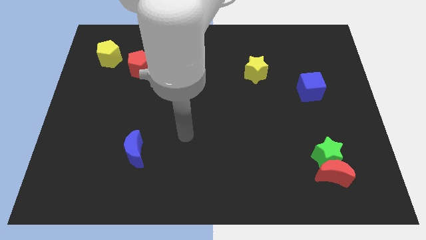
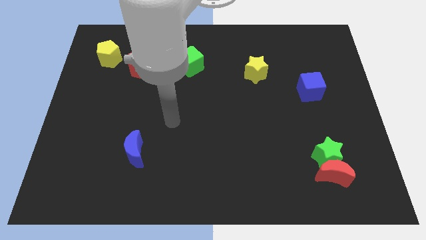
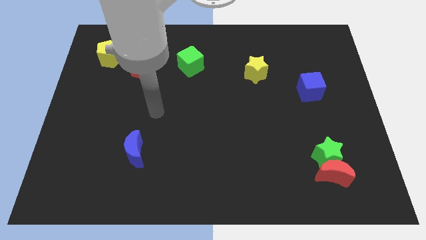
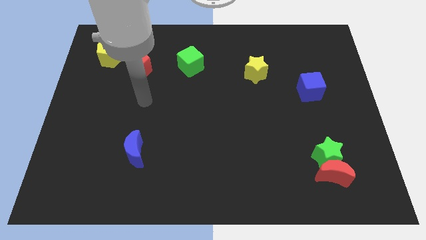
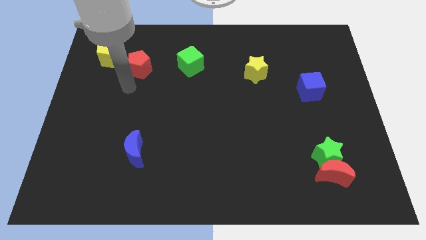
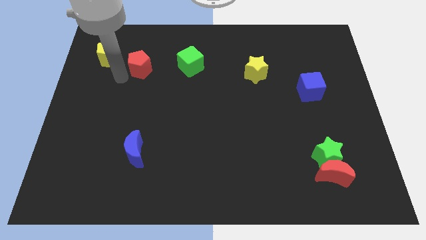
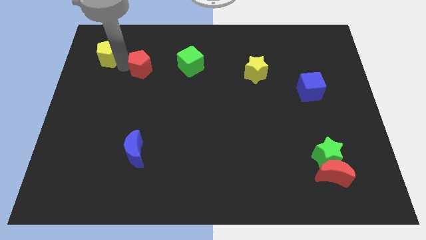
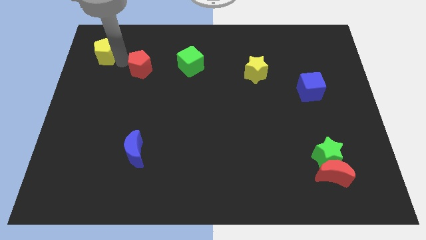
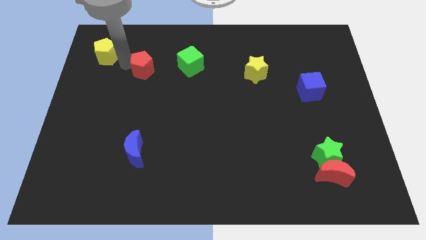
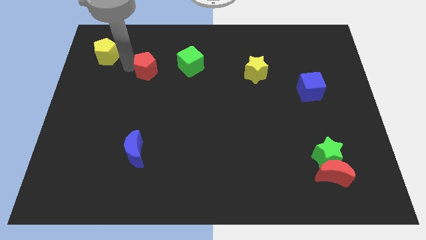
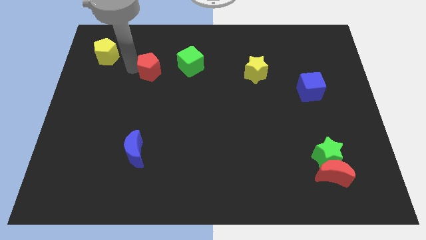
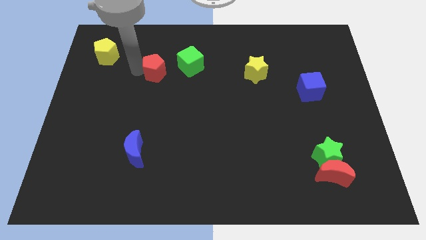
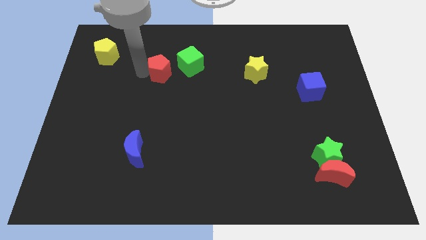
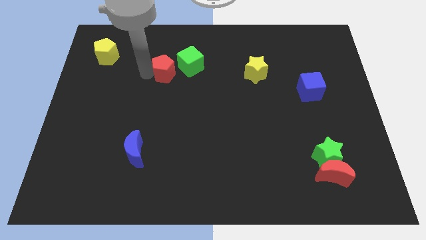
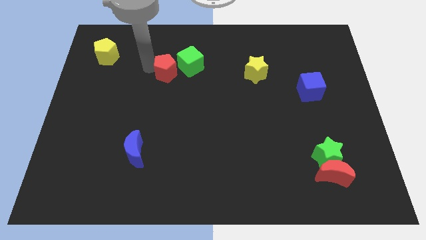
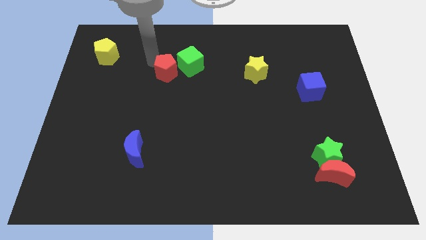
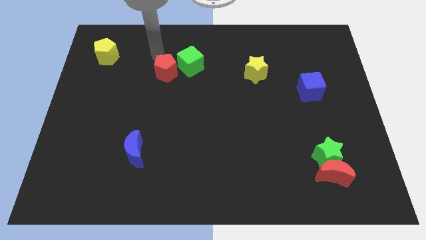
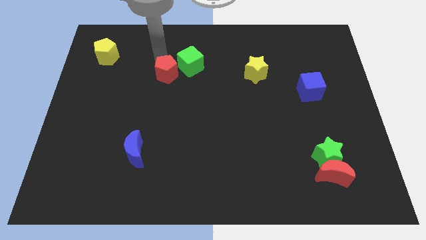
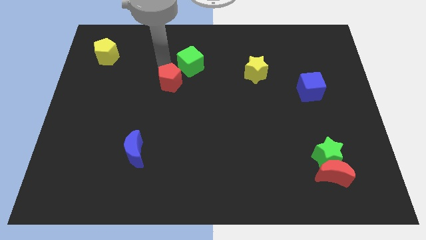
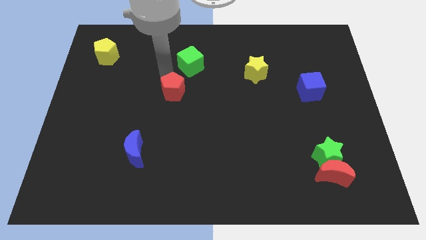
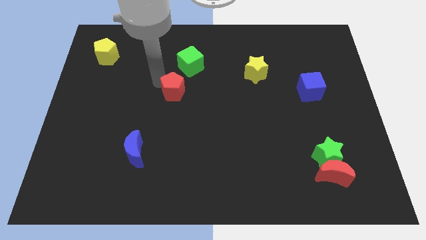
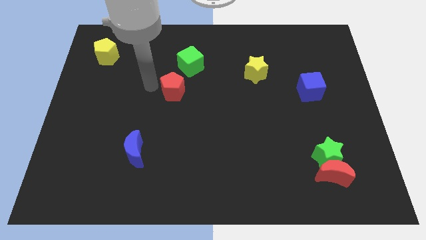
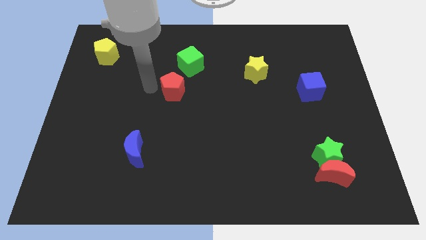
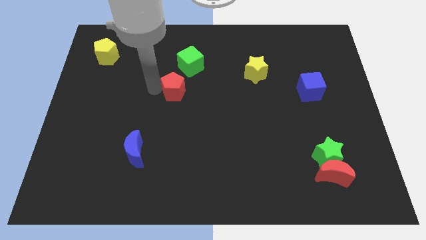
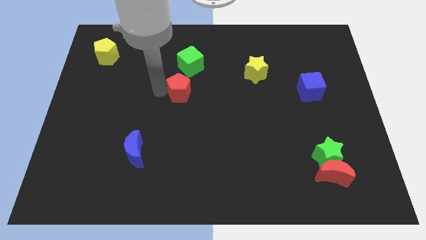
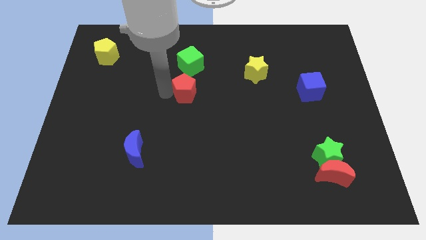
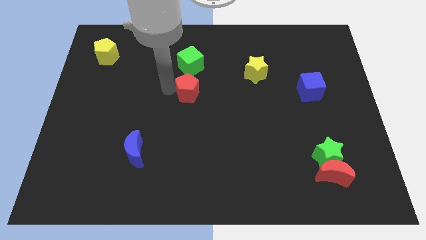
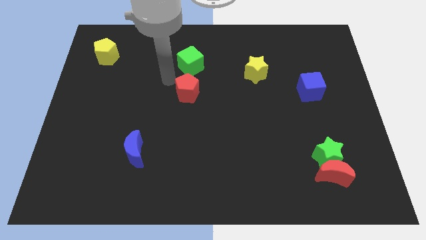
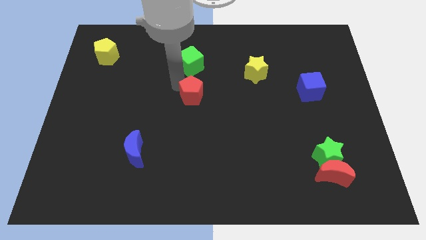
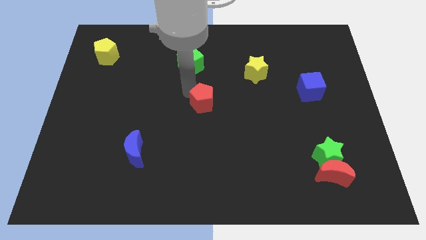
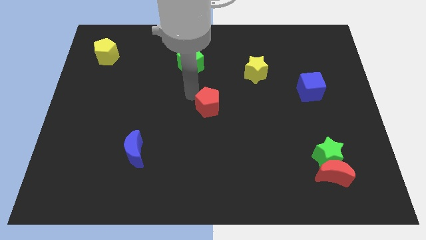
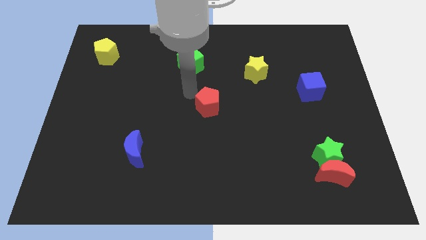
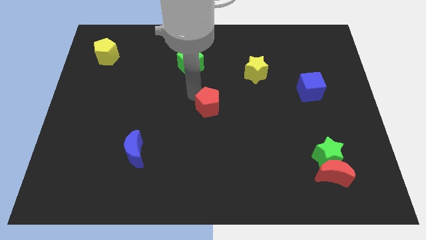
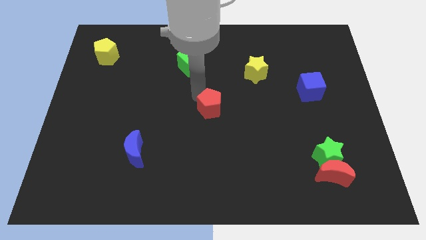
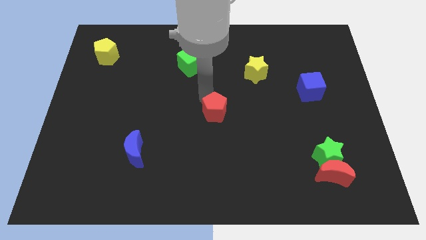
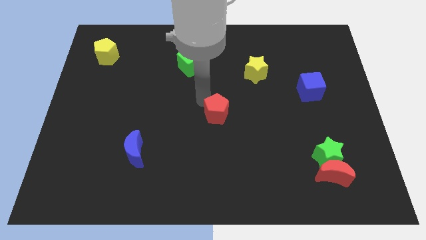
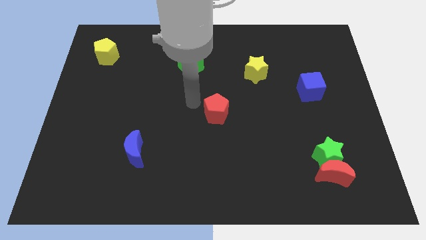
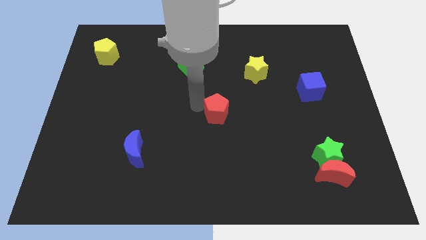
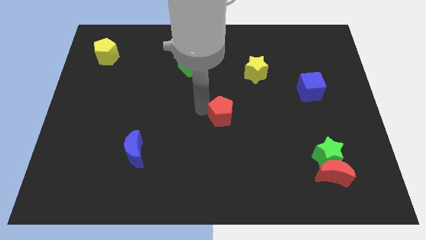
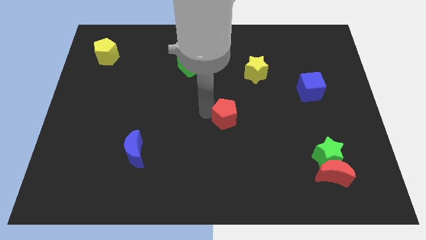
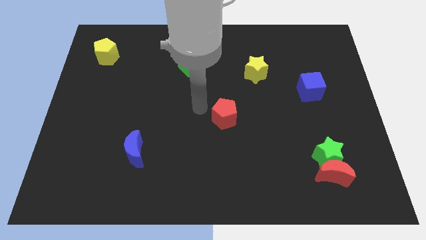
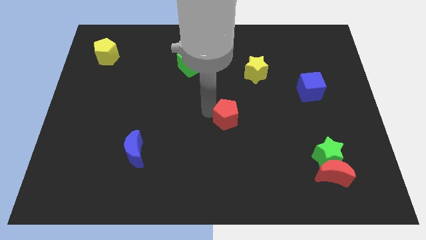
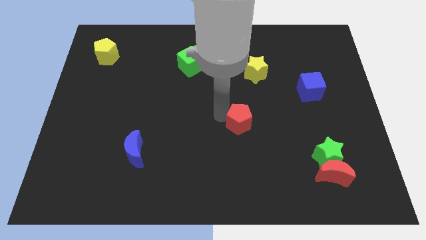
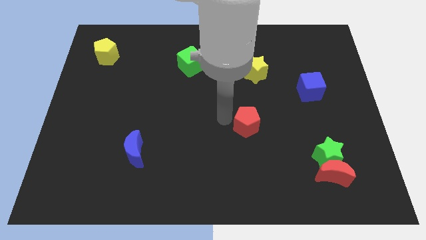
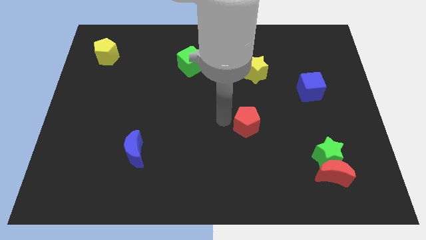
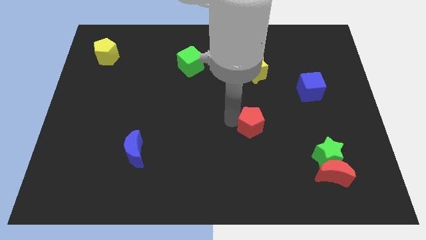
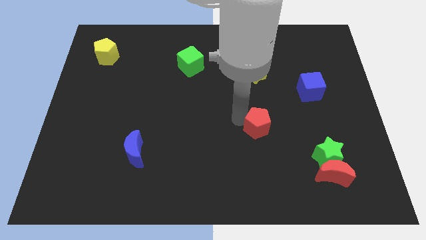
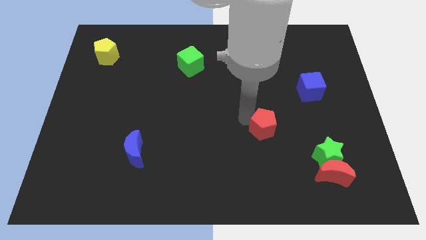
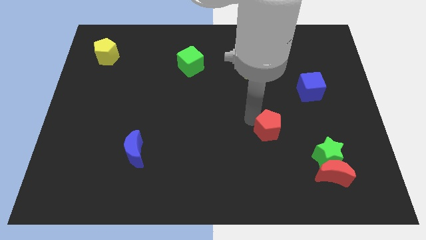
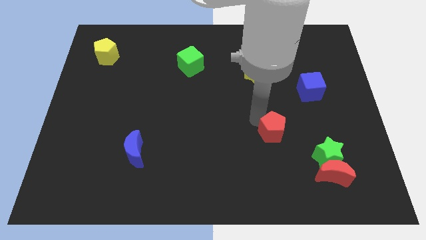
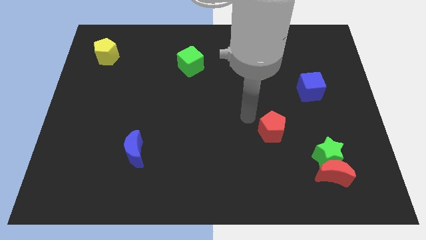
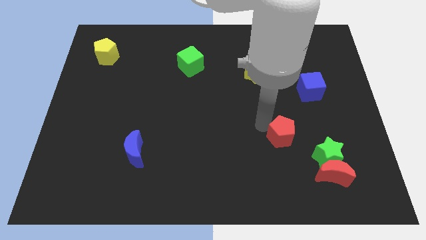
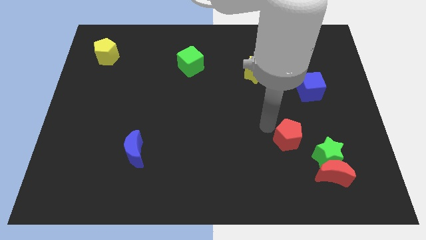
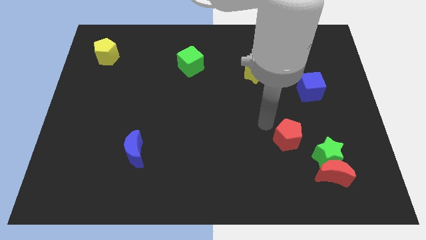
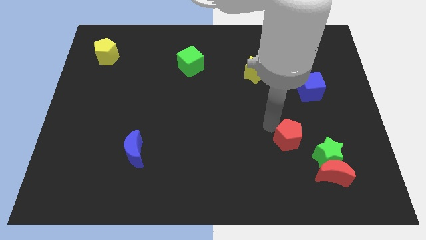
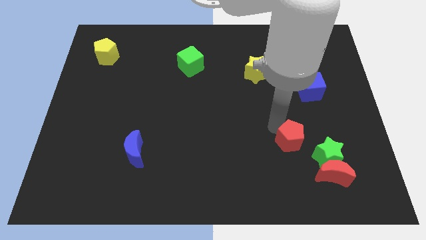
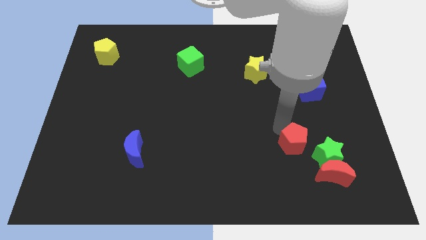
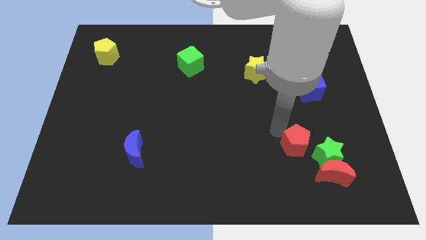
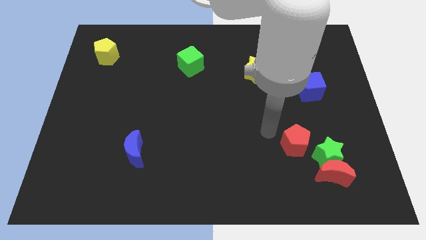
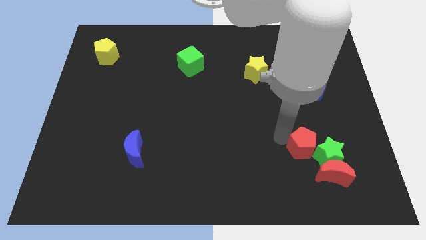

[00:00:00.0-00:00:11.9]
slide the red pentagon next to the green star

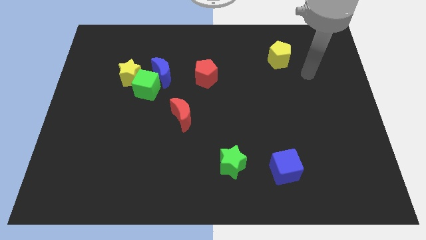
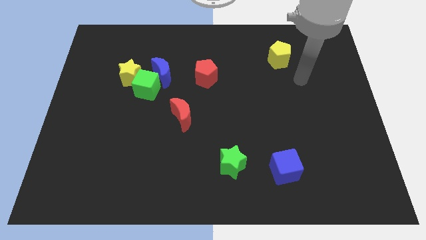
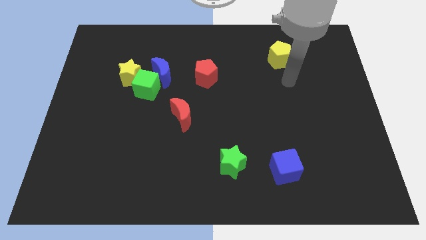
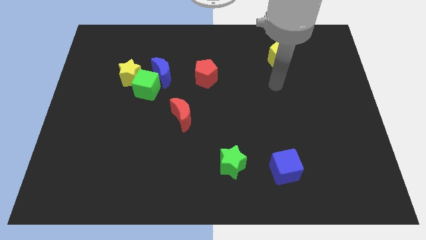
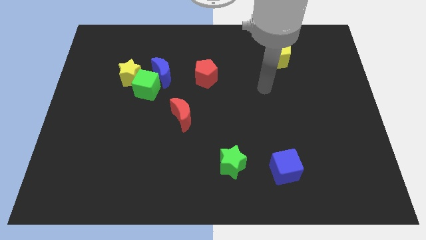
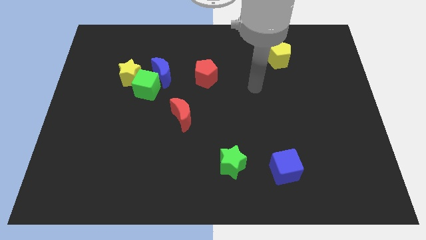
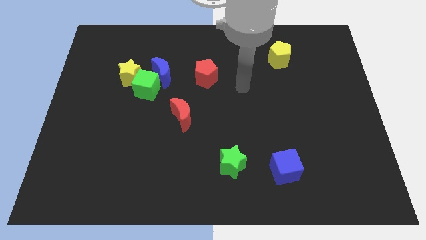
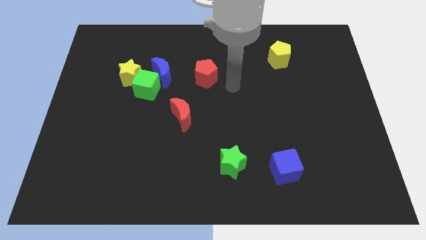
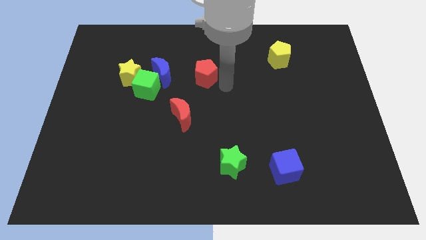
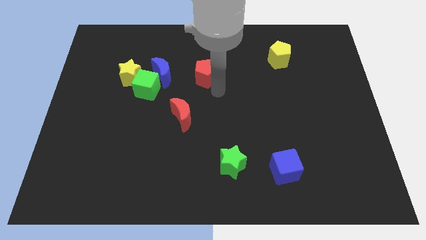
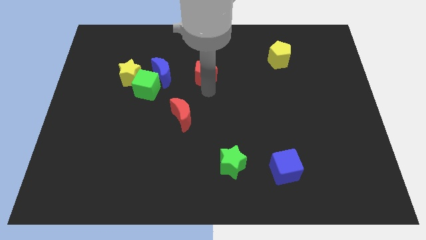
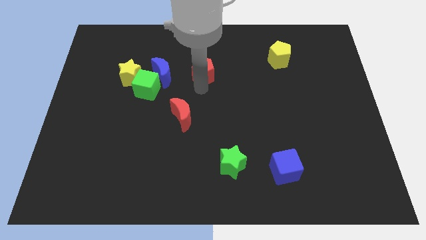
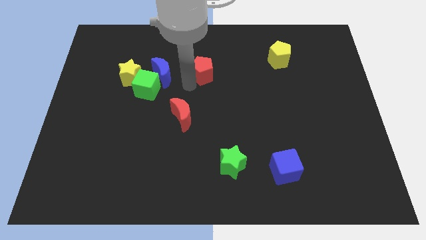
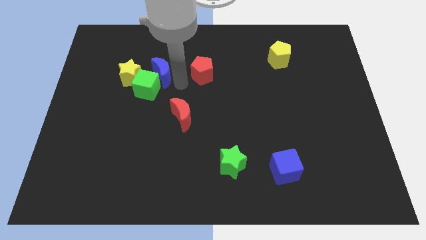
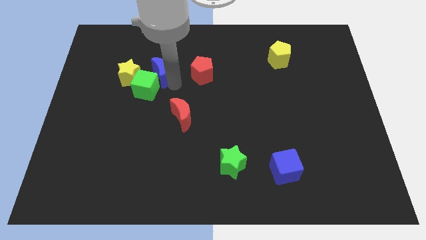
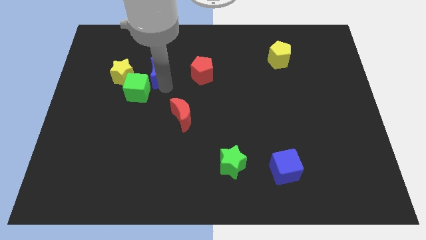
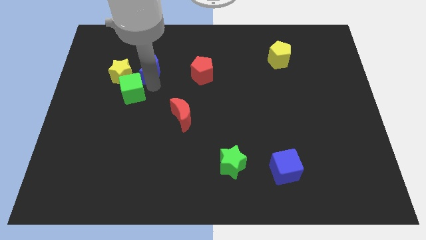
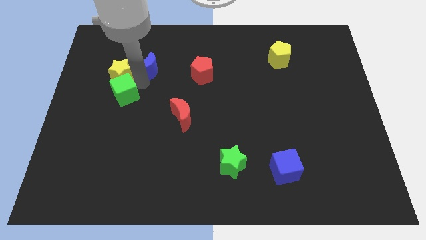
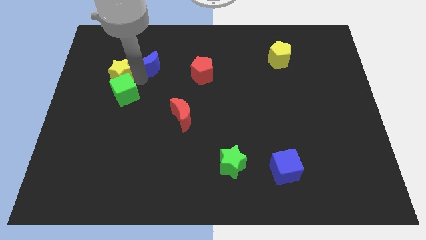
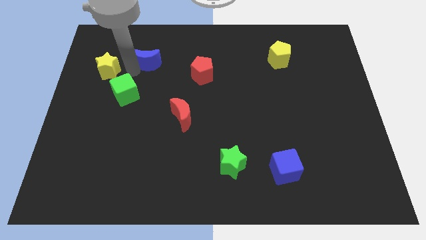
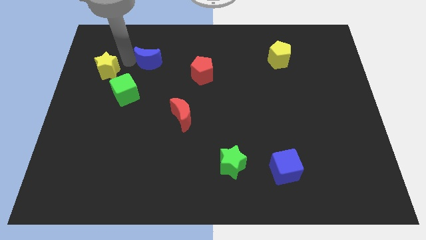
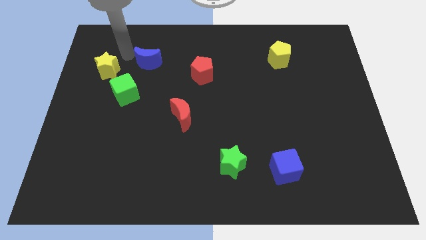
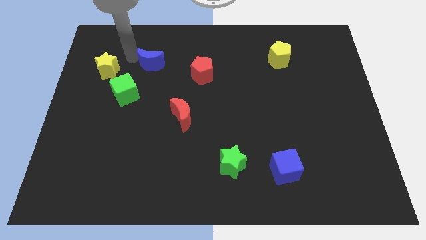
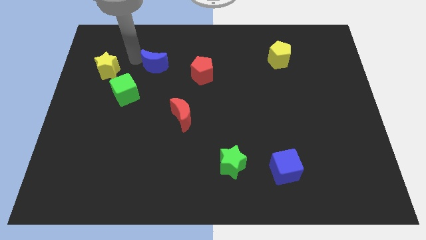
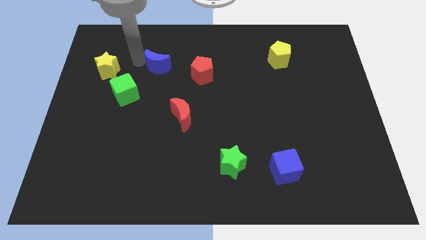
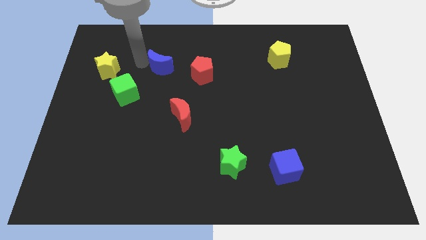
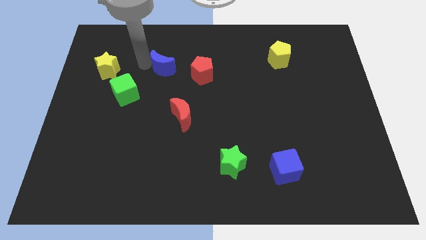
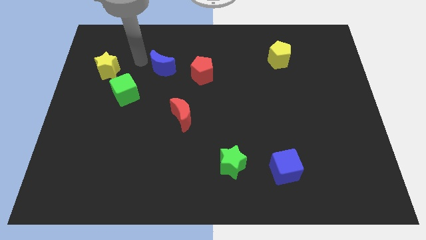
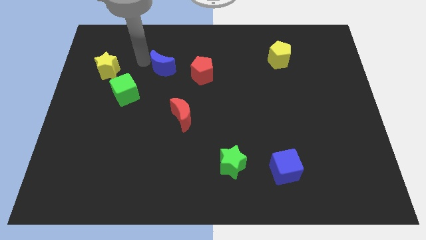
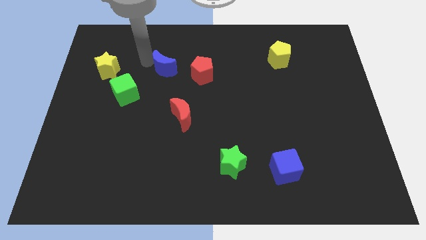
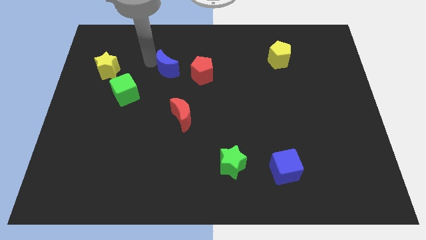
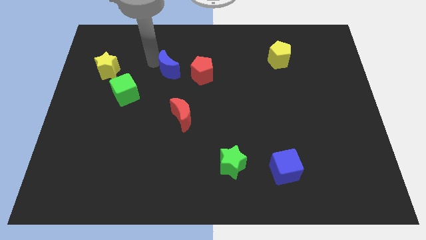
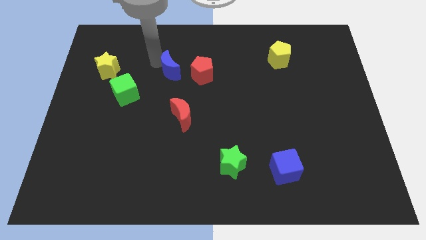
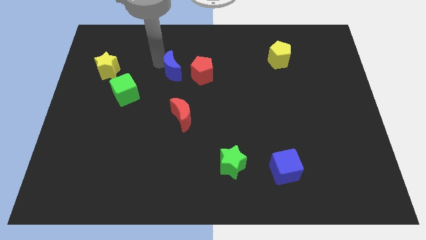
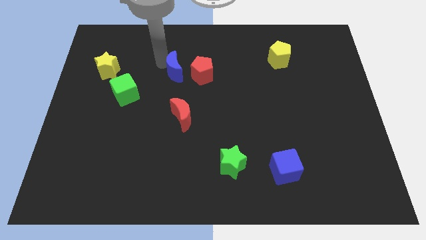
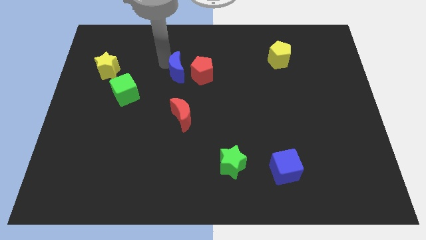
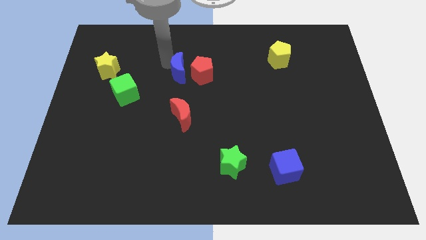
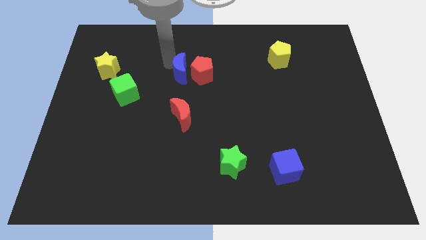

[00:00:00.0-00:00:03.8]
push the blue moon to the red pentagon
